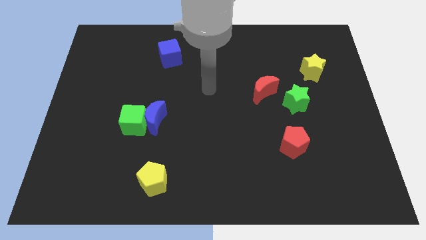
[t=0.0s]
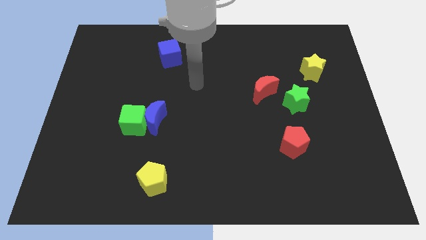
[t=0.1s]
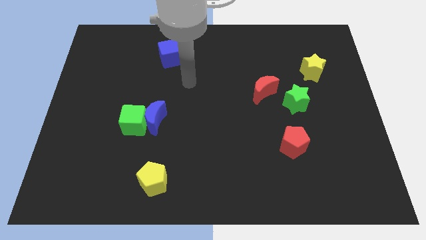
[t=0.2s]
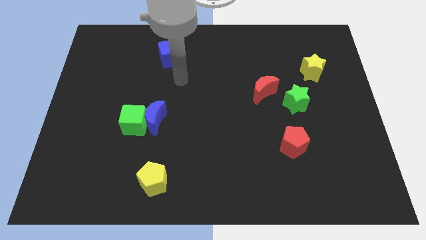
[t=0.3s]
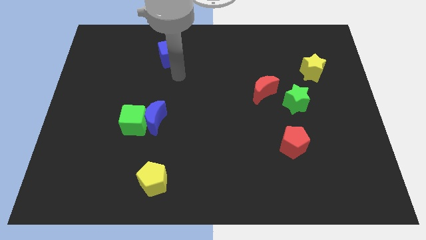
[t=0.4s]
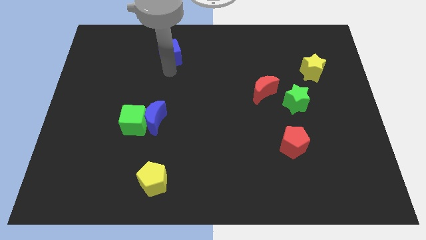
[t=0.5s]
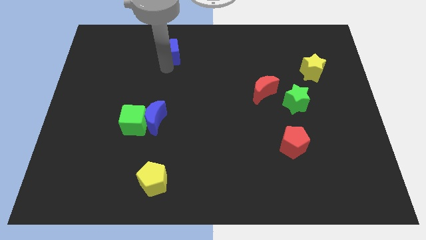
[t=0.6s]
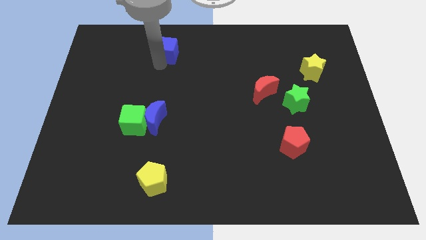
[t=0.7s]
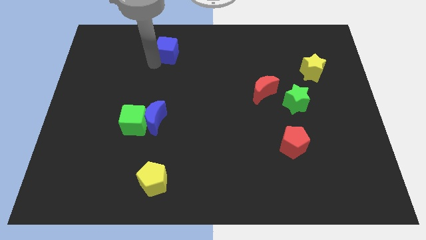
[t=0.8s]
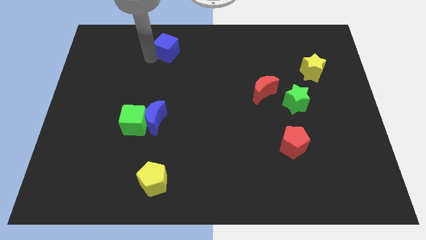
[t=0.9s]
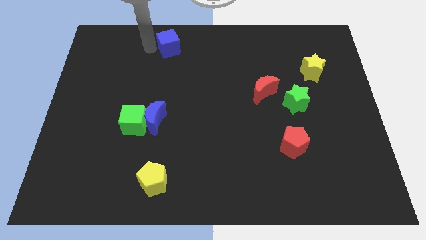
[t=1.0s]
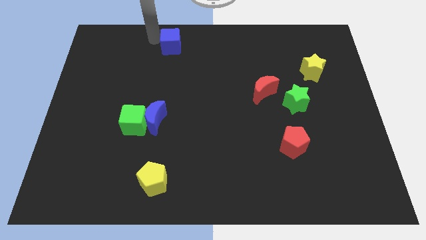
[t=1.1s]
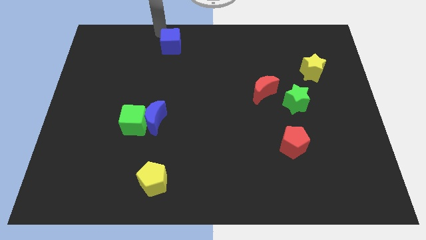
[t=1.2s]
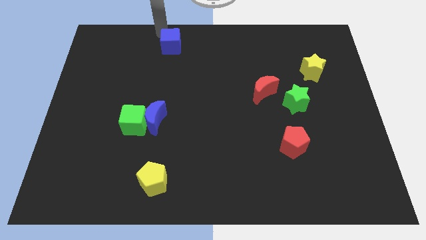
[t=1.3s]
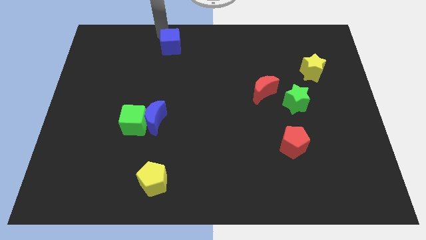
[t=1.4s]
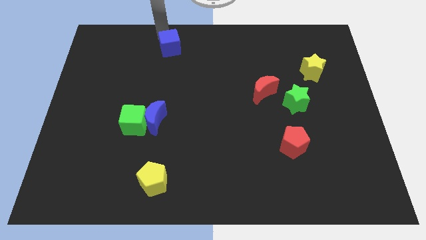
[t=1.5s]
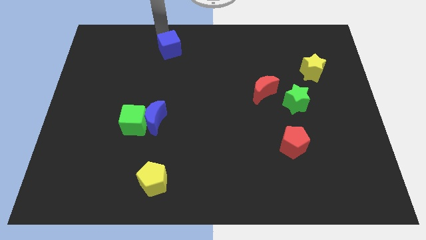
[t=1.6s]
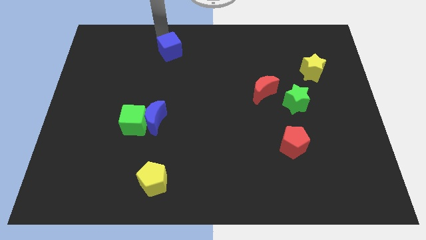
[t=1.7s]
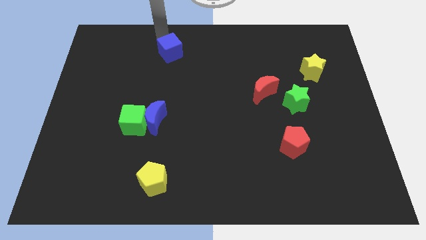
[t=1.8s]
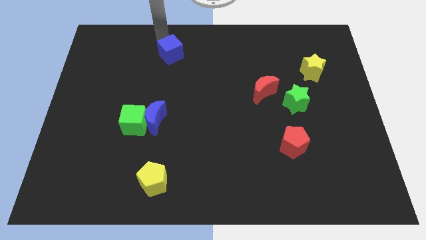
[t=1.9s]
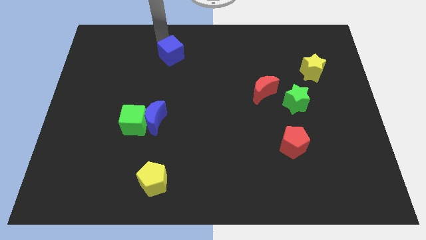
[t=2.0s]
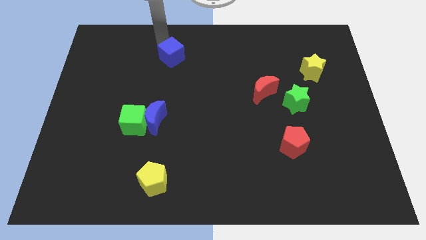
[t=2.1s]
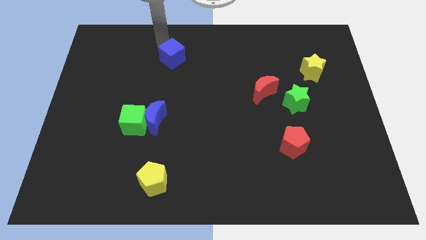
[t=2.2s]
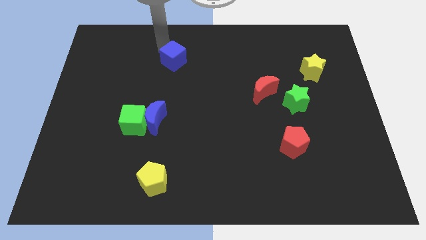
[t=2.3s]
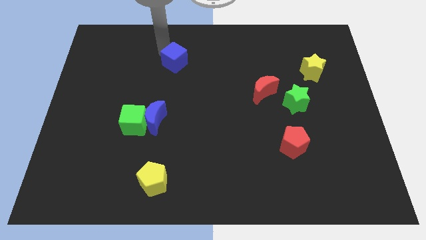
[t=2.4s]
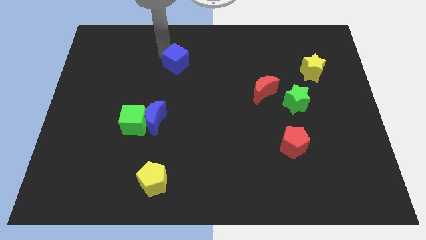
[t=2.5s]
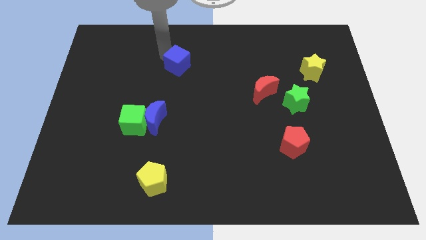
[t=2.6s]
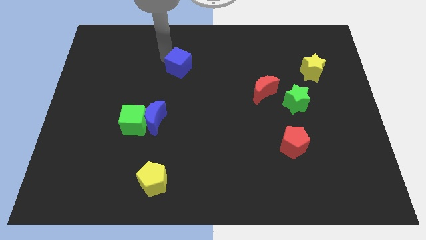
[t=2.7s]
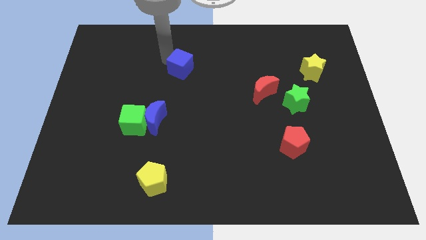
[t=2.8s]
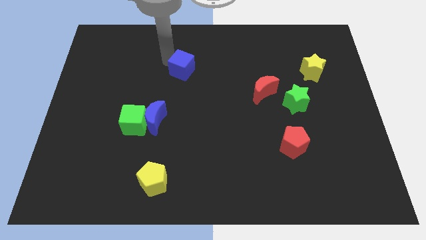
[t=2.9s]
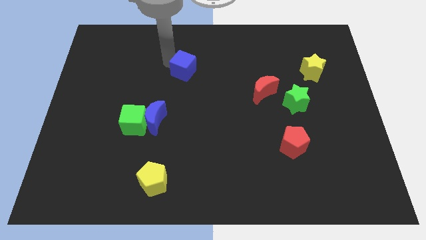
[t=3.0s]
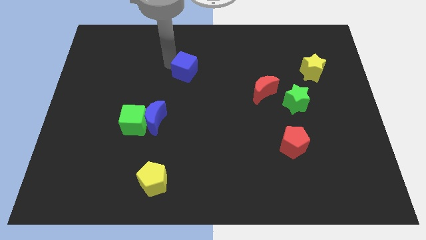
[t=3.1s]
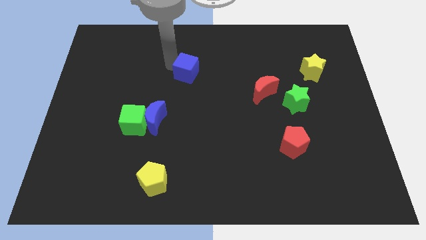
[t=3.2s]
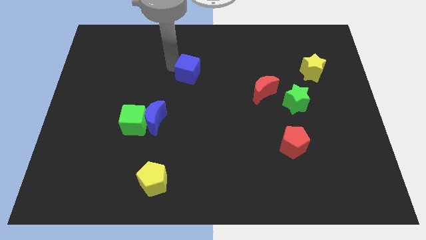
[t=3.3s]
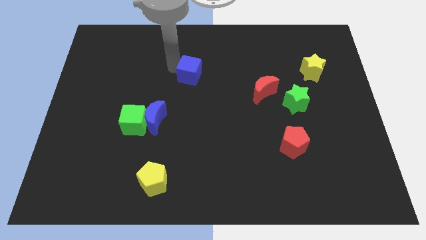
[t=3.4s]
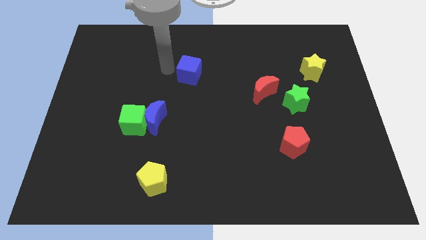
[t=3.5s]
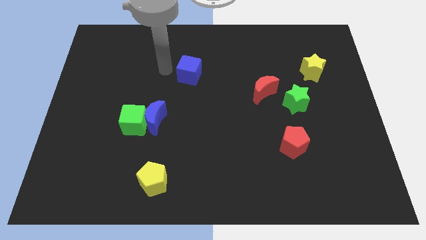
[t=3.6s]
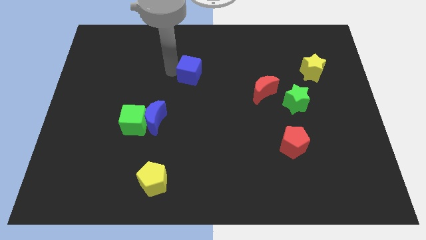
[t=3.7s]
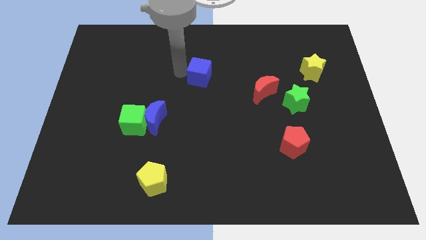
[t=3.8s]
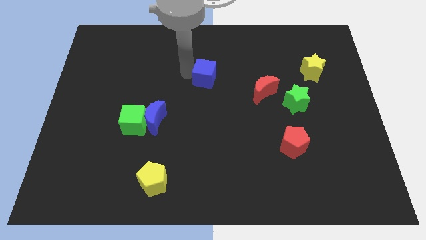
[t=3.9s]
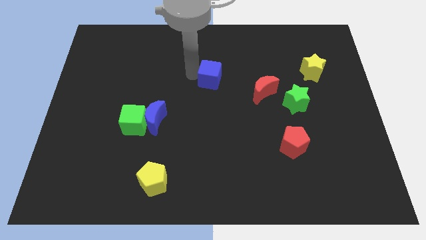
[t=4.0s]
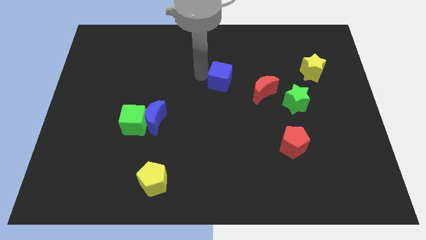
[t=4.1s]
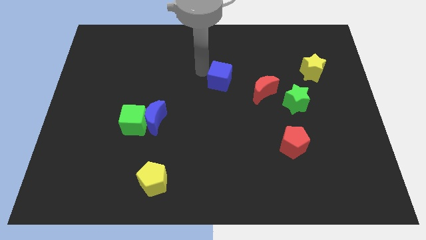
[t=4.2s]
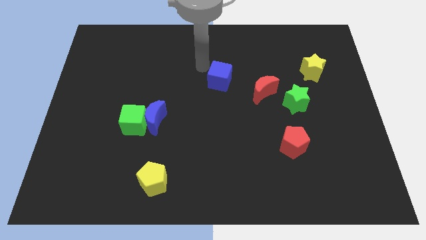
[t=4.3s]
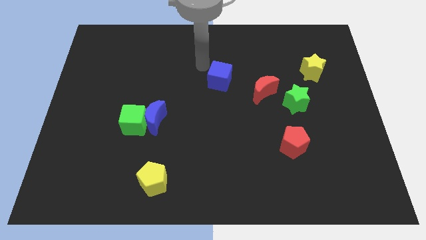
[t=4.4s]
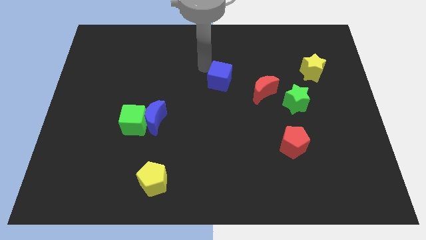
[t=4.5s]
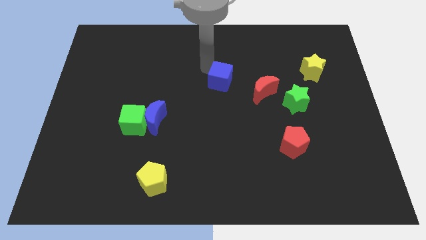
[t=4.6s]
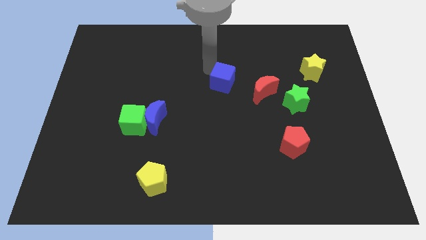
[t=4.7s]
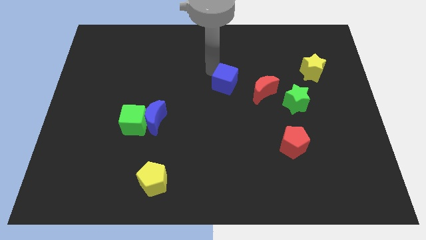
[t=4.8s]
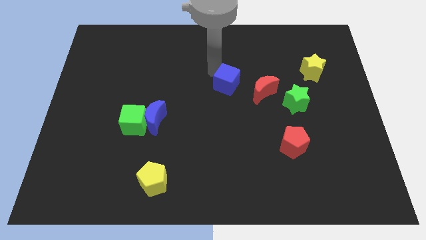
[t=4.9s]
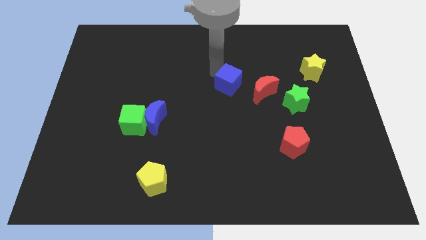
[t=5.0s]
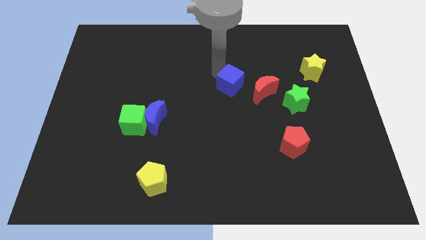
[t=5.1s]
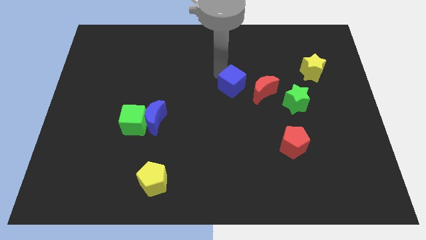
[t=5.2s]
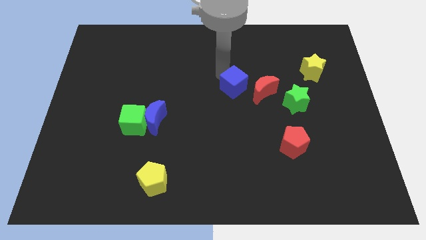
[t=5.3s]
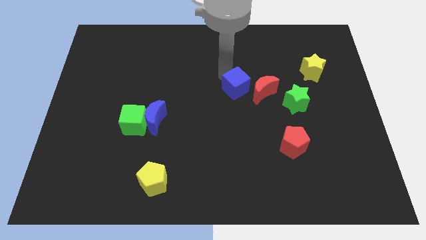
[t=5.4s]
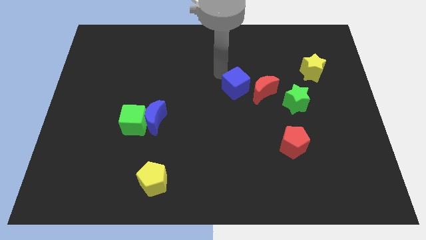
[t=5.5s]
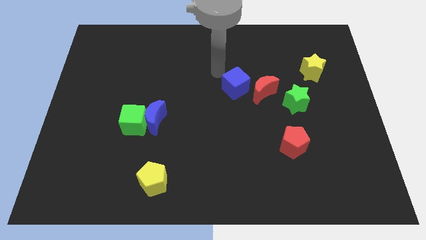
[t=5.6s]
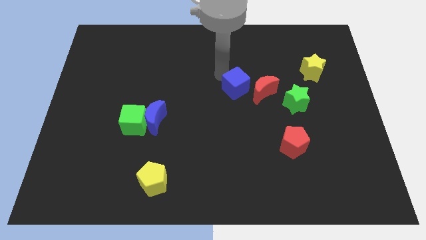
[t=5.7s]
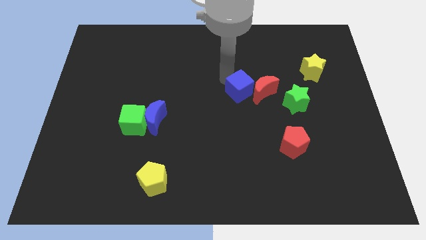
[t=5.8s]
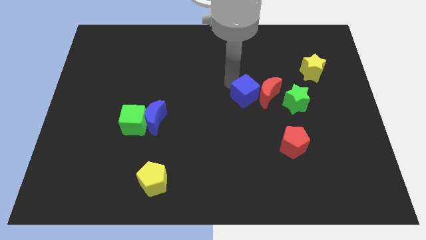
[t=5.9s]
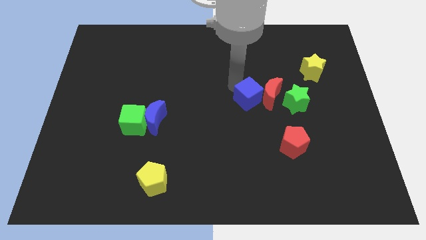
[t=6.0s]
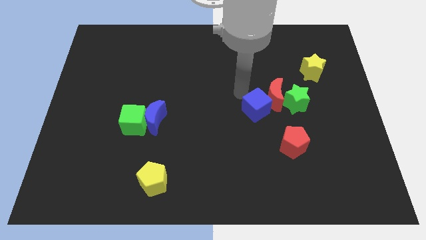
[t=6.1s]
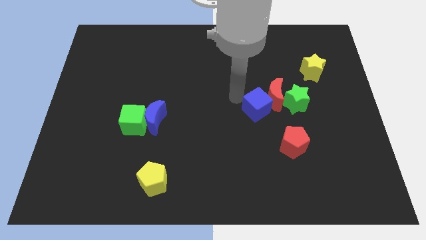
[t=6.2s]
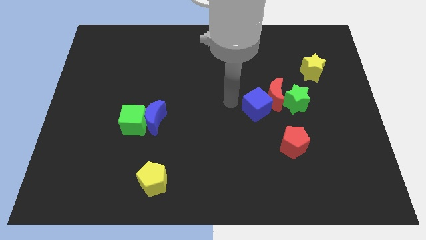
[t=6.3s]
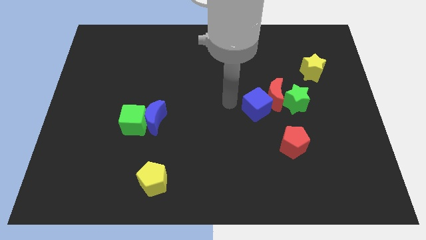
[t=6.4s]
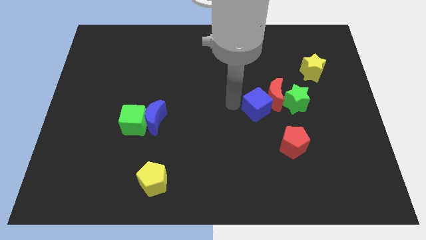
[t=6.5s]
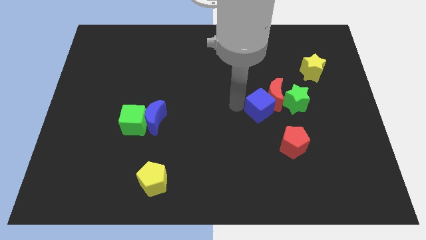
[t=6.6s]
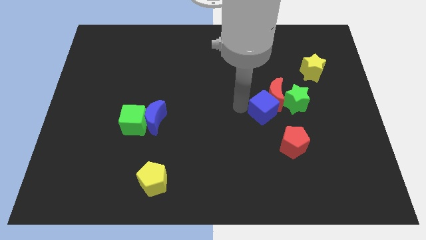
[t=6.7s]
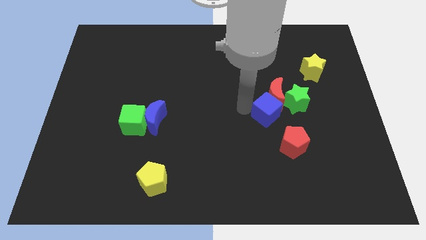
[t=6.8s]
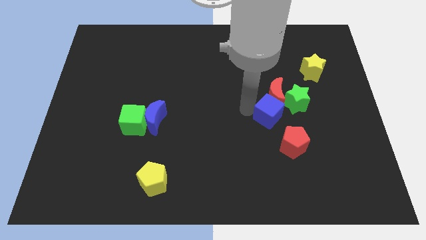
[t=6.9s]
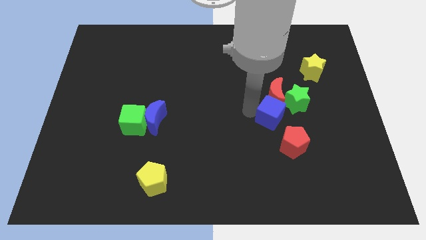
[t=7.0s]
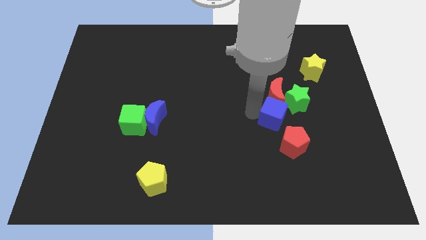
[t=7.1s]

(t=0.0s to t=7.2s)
slide the blue cube to the bottom right side of the red moon
